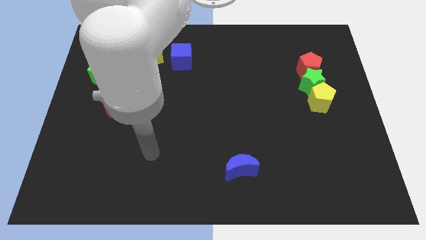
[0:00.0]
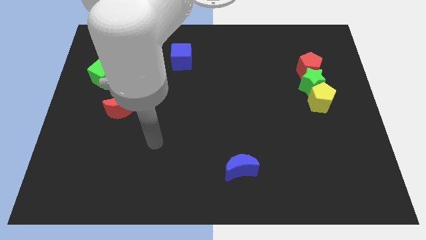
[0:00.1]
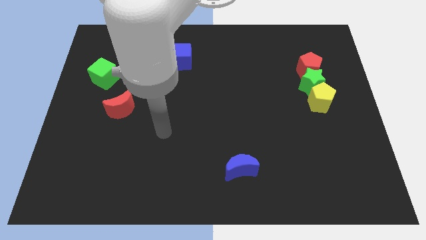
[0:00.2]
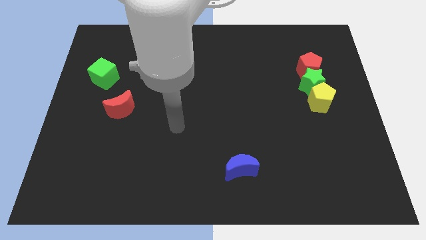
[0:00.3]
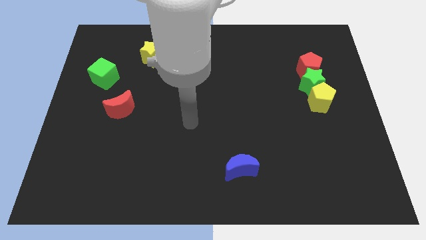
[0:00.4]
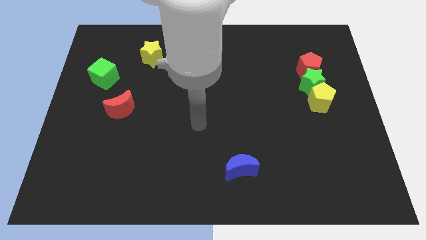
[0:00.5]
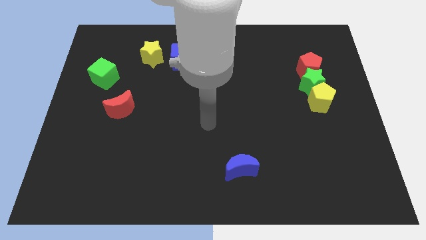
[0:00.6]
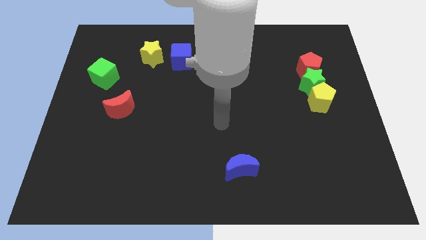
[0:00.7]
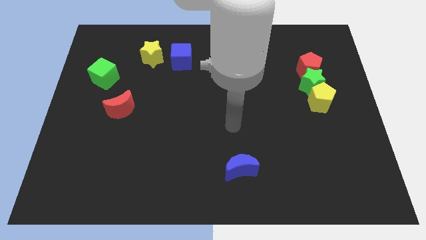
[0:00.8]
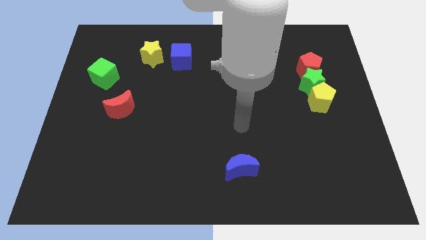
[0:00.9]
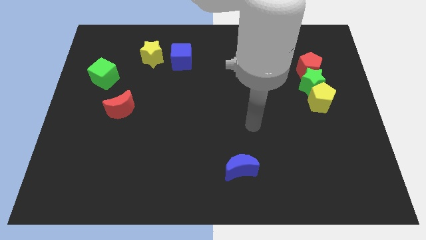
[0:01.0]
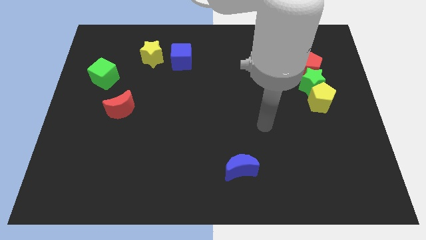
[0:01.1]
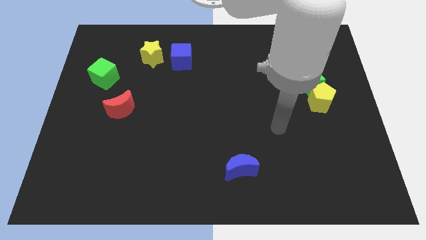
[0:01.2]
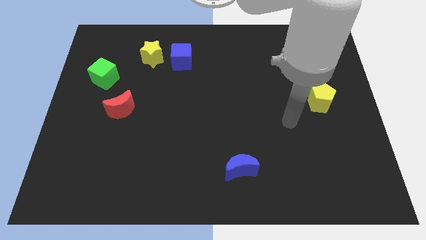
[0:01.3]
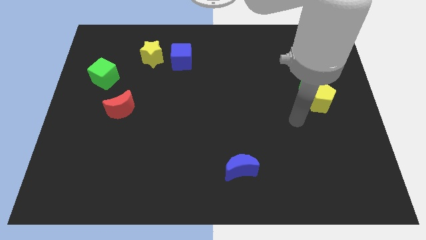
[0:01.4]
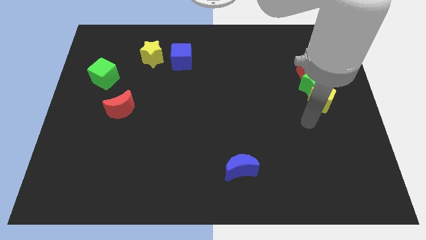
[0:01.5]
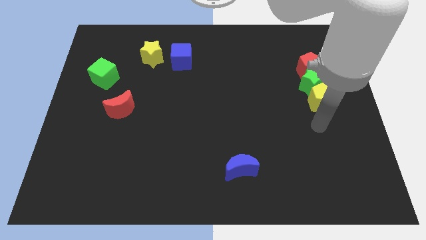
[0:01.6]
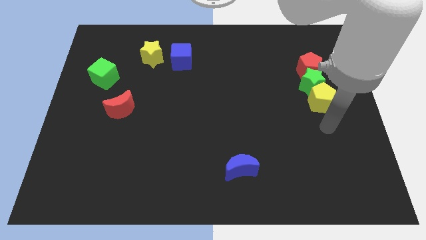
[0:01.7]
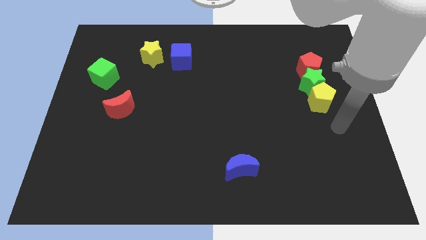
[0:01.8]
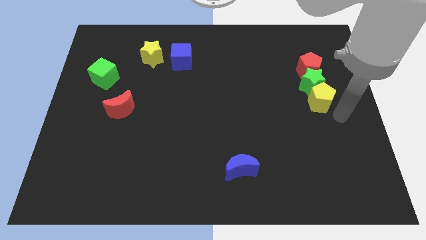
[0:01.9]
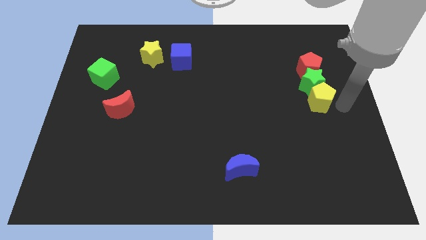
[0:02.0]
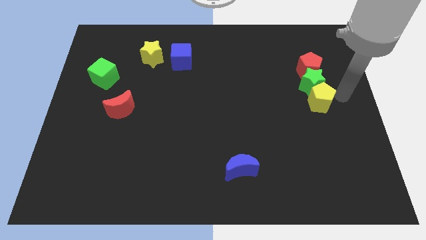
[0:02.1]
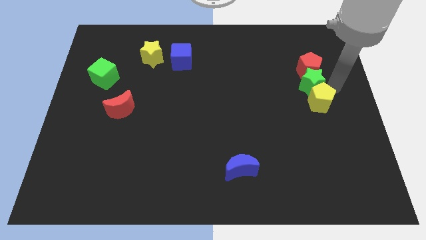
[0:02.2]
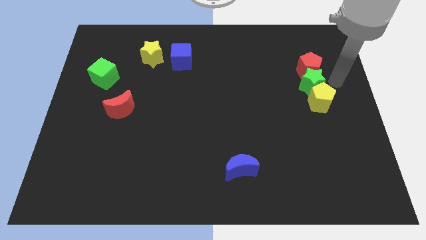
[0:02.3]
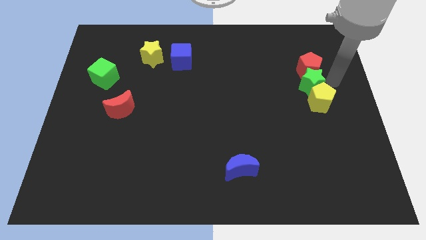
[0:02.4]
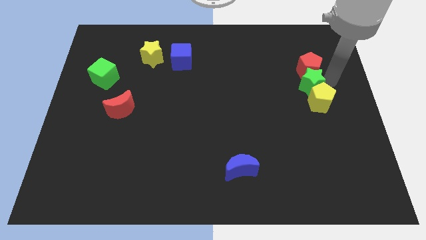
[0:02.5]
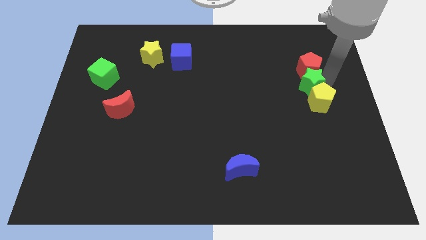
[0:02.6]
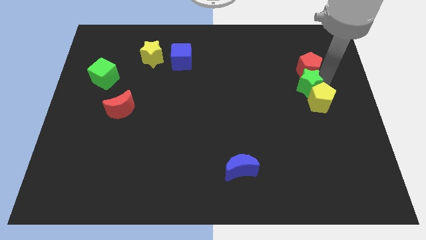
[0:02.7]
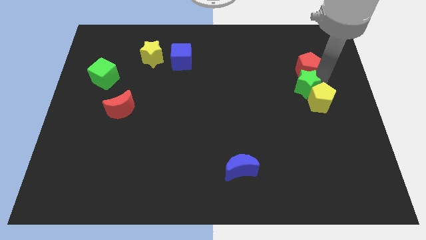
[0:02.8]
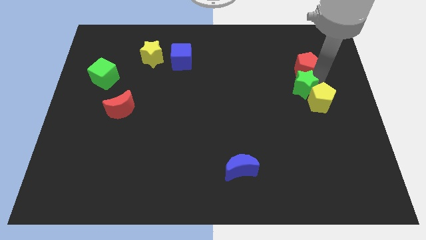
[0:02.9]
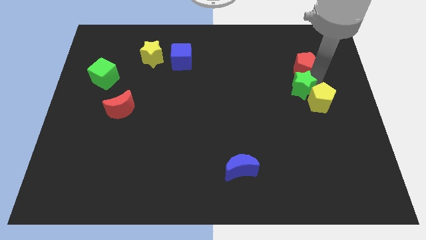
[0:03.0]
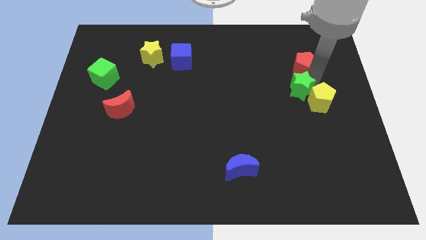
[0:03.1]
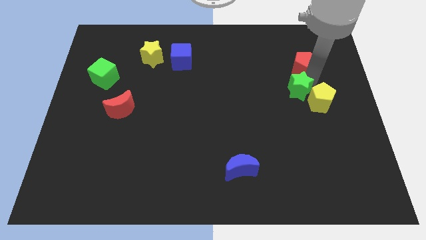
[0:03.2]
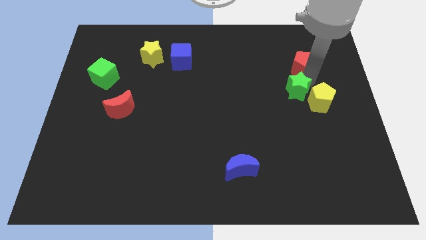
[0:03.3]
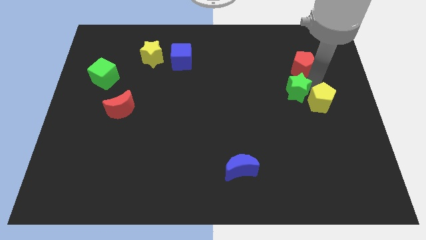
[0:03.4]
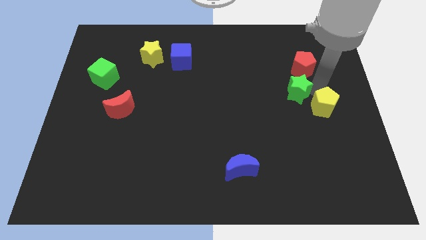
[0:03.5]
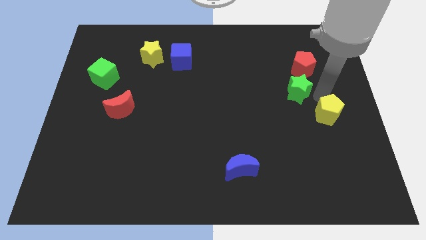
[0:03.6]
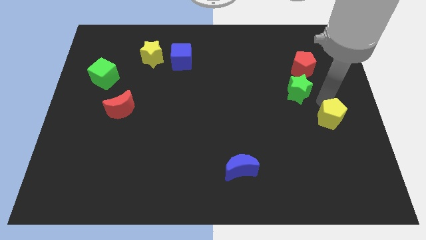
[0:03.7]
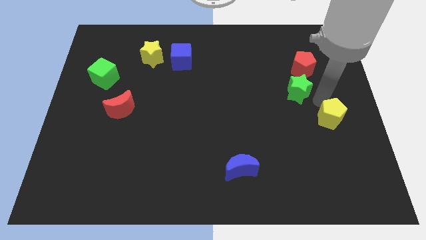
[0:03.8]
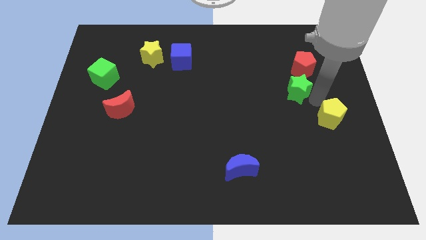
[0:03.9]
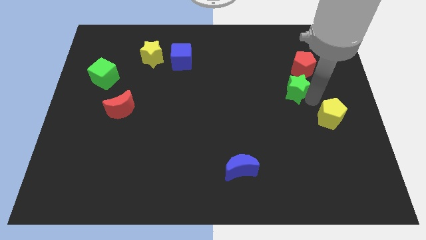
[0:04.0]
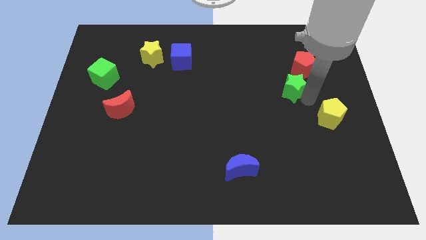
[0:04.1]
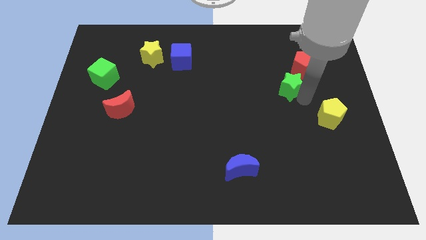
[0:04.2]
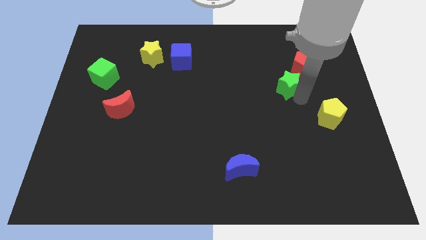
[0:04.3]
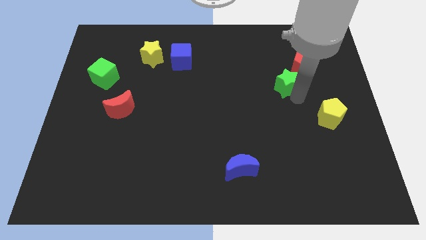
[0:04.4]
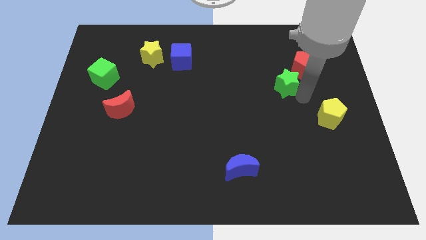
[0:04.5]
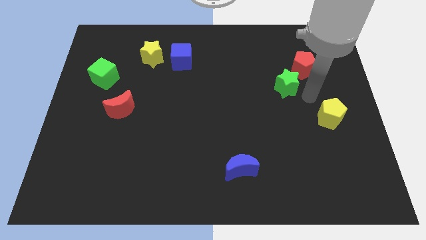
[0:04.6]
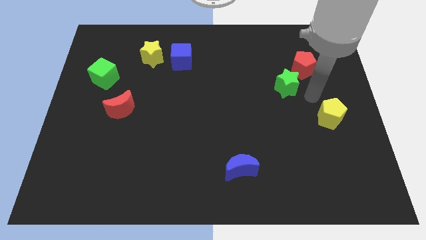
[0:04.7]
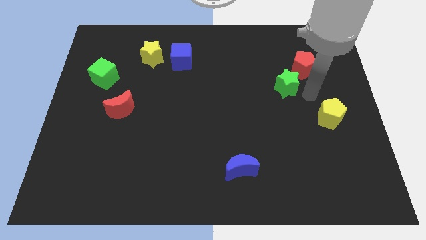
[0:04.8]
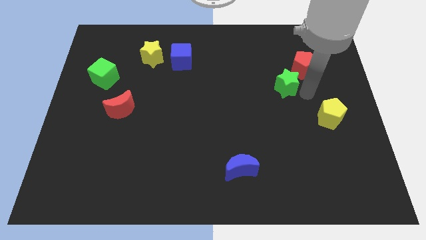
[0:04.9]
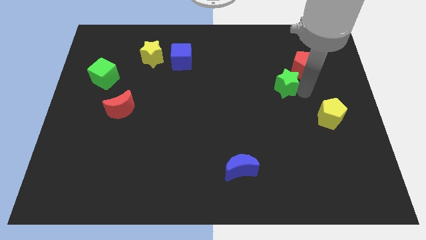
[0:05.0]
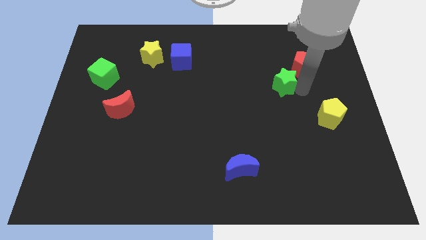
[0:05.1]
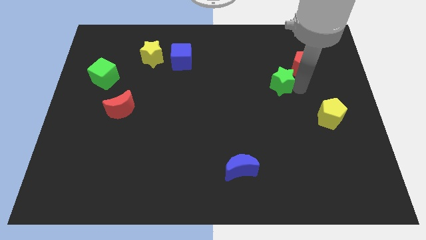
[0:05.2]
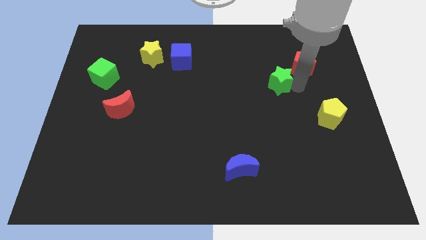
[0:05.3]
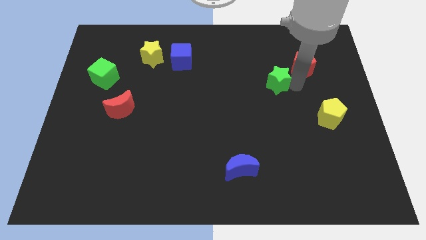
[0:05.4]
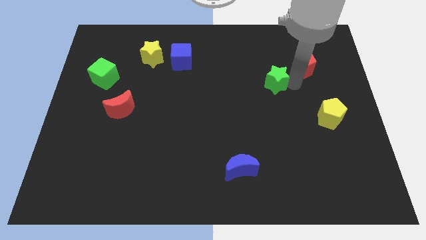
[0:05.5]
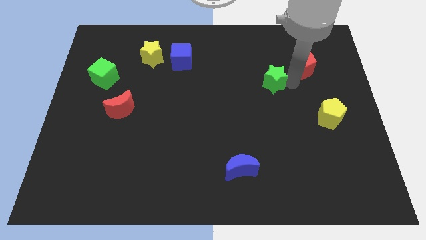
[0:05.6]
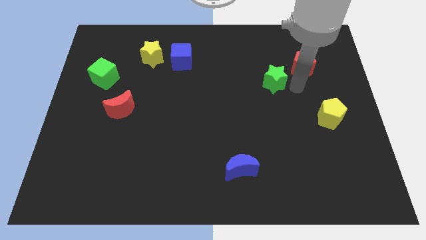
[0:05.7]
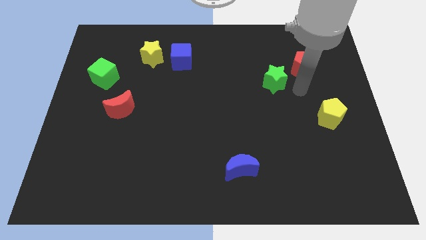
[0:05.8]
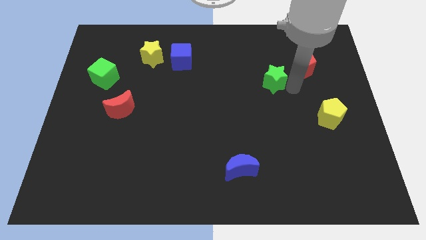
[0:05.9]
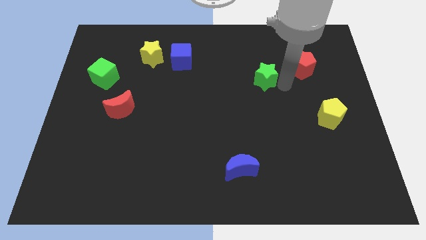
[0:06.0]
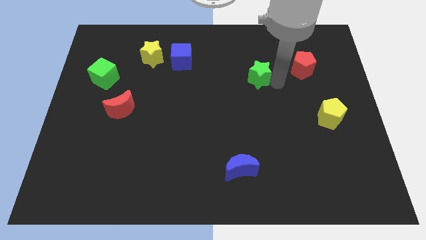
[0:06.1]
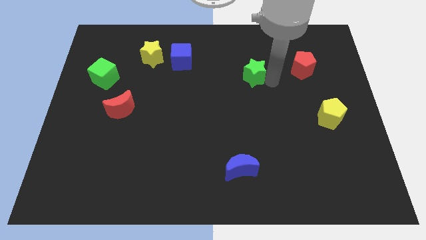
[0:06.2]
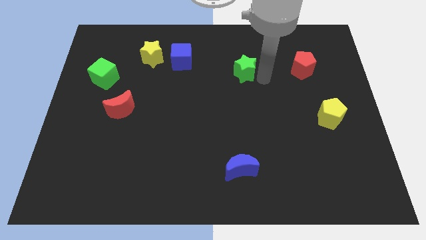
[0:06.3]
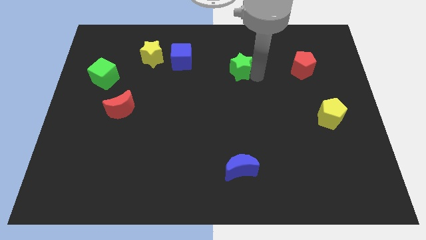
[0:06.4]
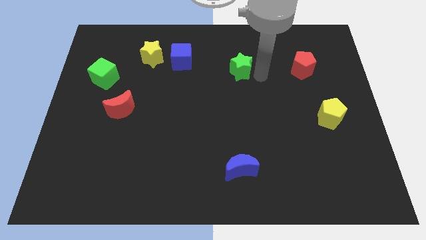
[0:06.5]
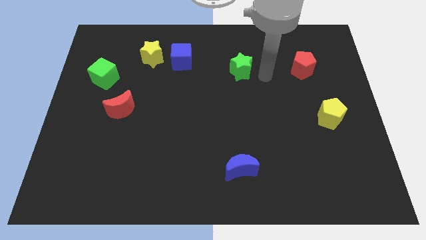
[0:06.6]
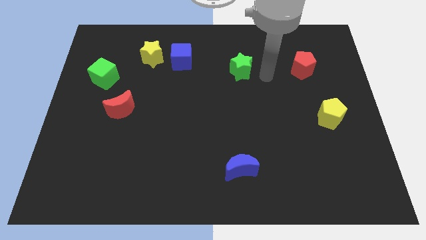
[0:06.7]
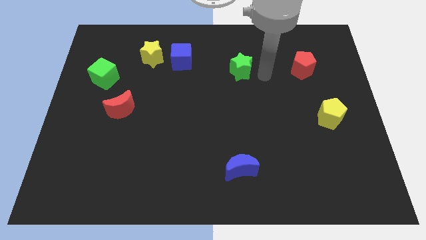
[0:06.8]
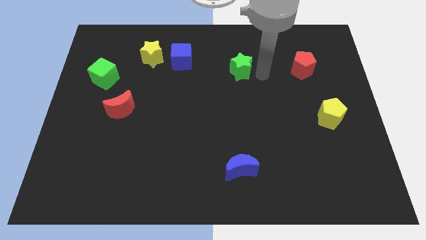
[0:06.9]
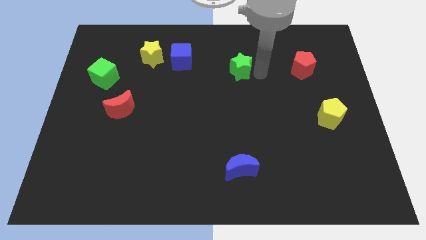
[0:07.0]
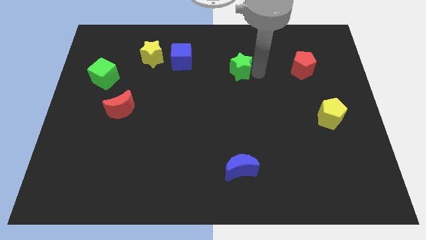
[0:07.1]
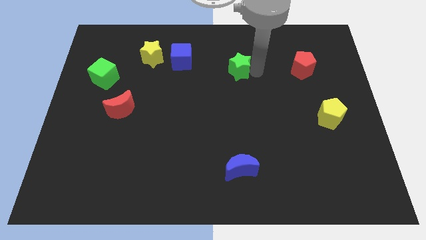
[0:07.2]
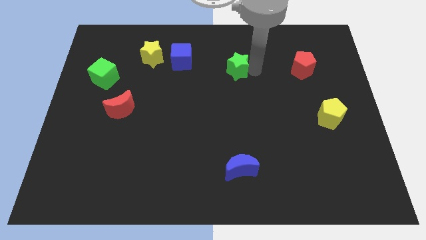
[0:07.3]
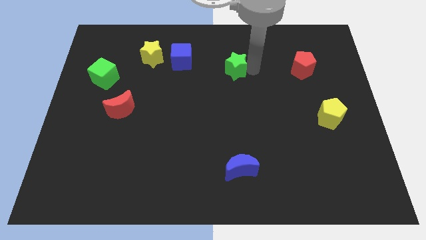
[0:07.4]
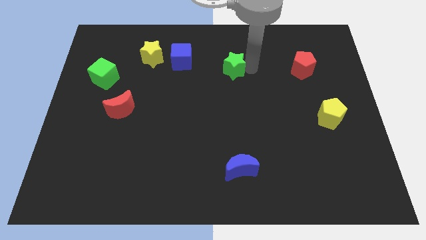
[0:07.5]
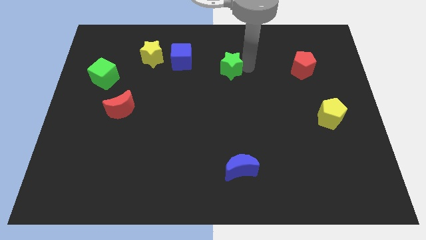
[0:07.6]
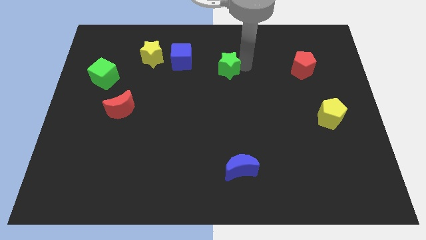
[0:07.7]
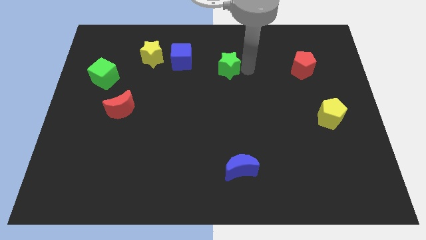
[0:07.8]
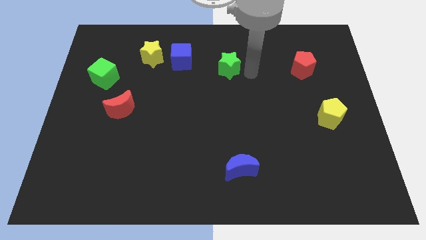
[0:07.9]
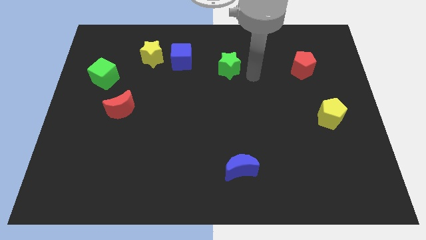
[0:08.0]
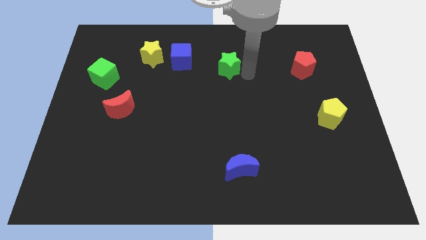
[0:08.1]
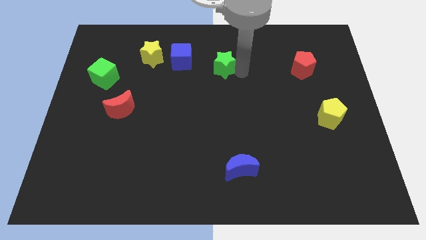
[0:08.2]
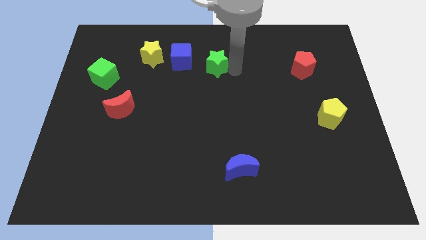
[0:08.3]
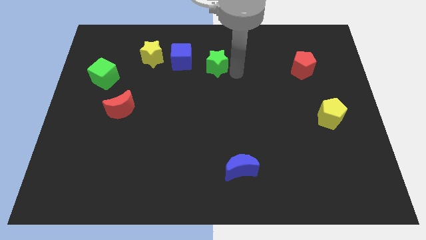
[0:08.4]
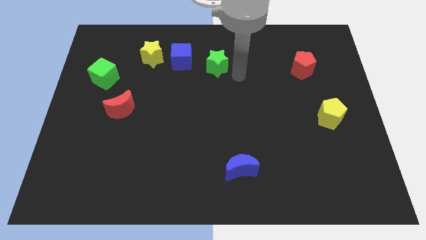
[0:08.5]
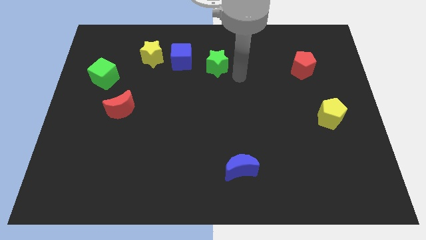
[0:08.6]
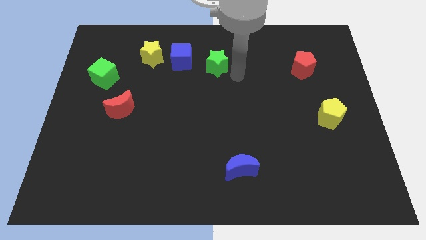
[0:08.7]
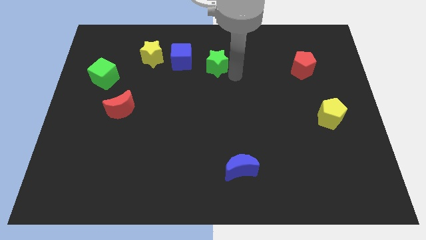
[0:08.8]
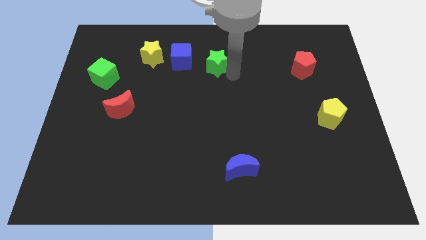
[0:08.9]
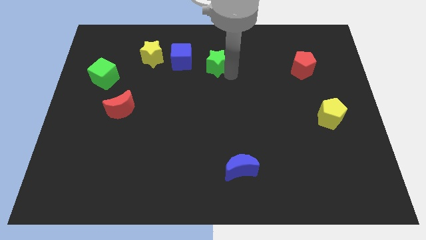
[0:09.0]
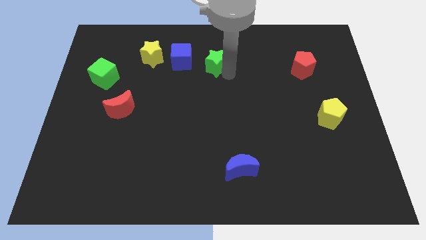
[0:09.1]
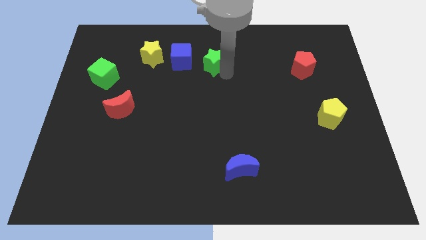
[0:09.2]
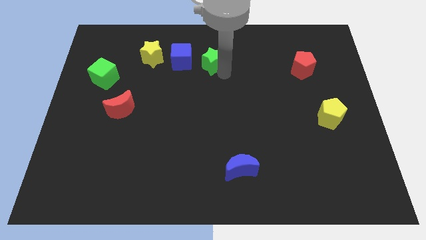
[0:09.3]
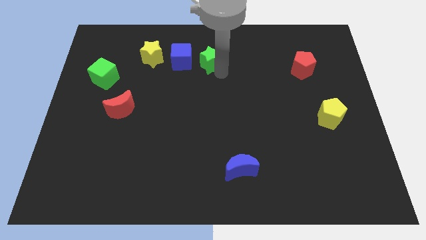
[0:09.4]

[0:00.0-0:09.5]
move the green star to the right of the yellow star
